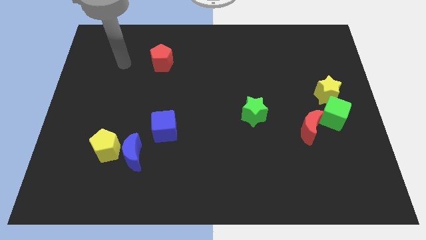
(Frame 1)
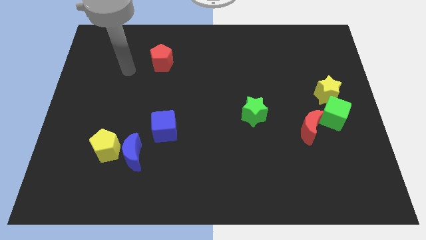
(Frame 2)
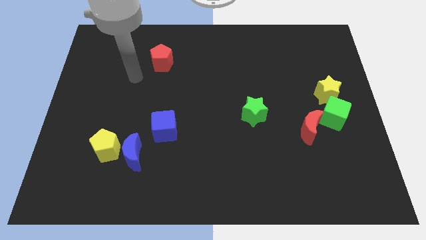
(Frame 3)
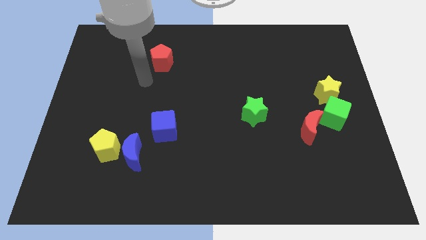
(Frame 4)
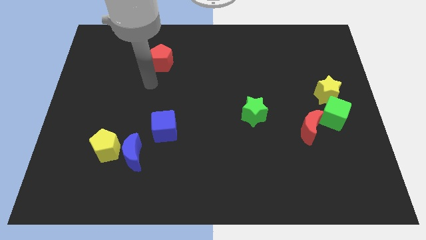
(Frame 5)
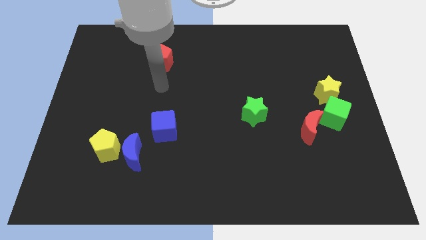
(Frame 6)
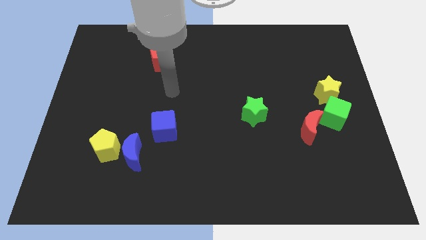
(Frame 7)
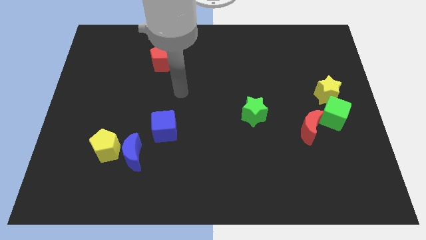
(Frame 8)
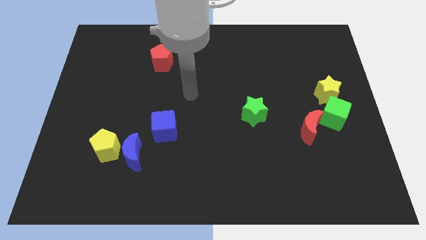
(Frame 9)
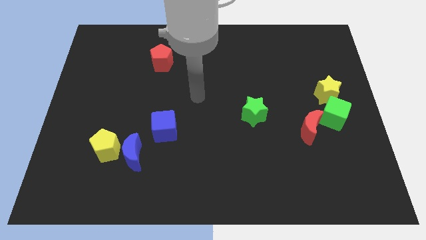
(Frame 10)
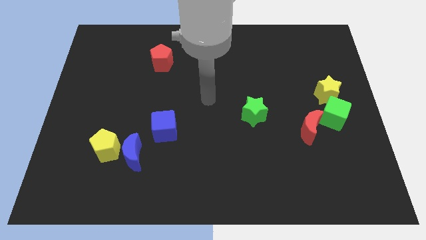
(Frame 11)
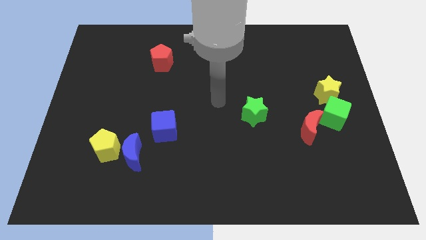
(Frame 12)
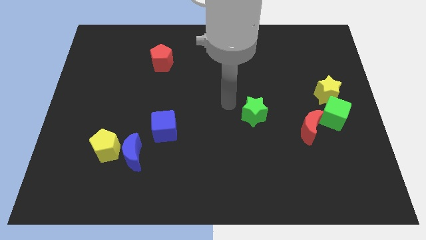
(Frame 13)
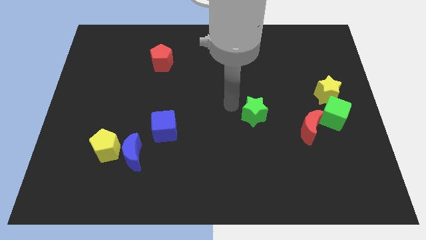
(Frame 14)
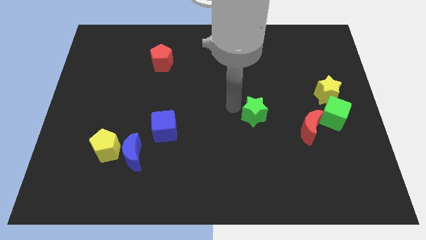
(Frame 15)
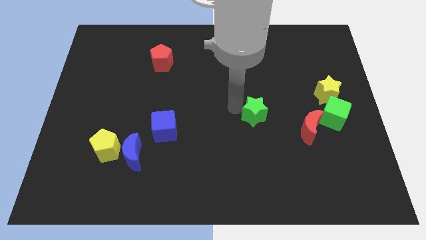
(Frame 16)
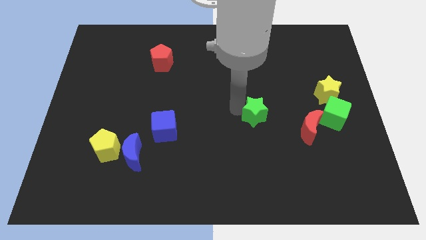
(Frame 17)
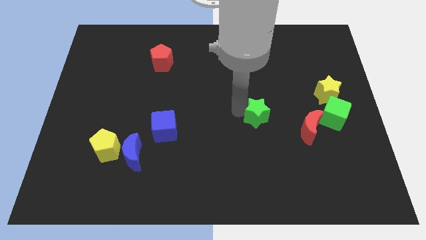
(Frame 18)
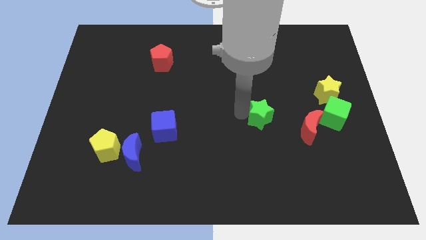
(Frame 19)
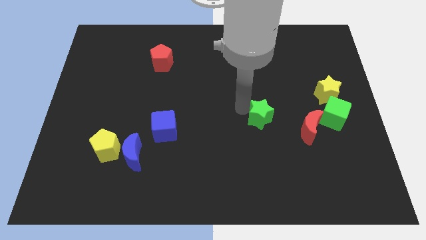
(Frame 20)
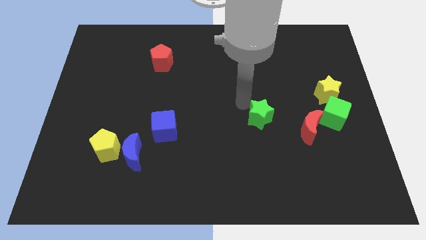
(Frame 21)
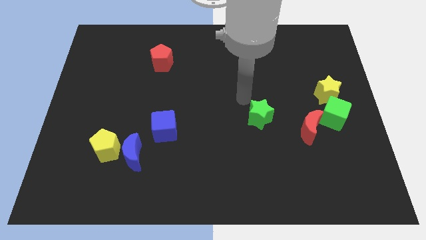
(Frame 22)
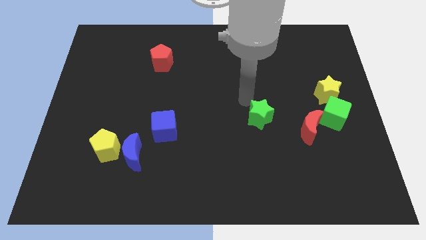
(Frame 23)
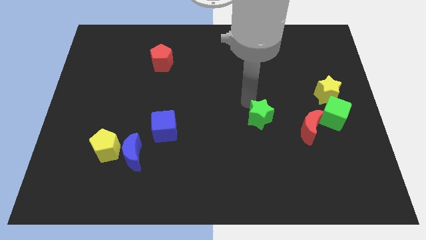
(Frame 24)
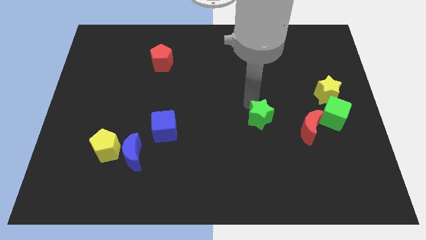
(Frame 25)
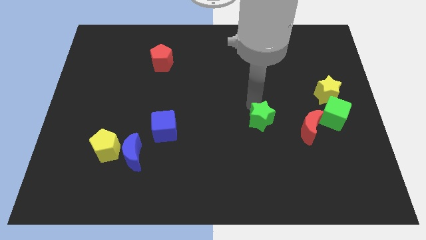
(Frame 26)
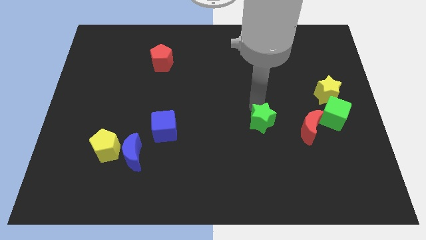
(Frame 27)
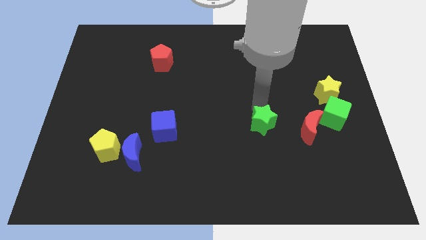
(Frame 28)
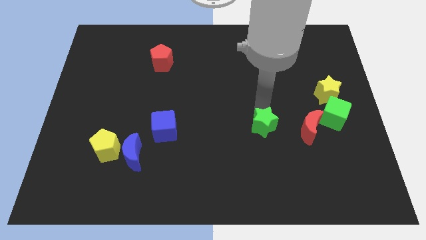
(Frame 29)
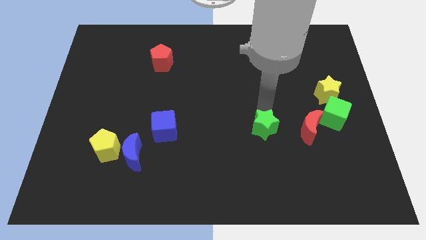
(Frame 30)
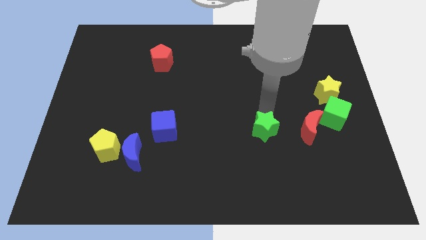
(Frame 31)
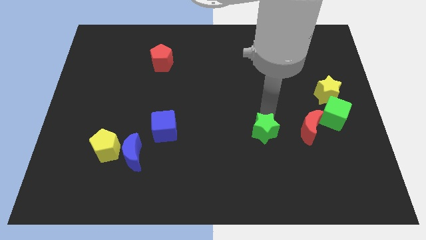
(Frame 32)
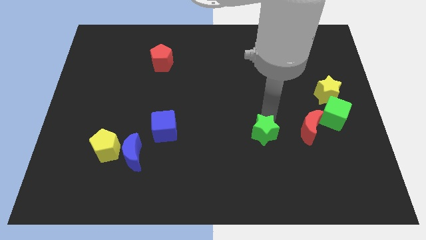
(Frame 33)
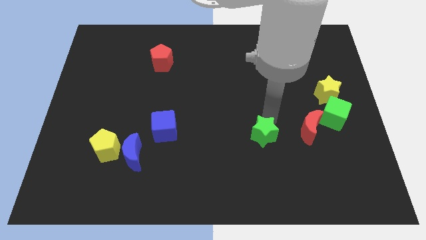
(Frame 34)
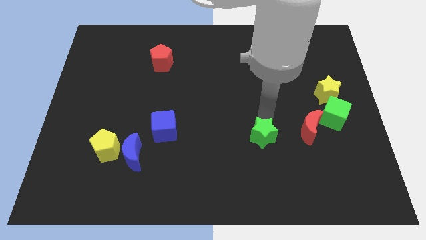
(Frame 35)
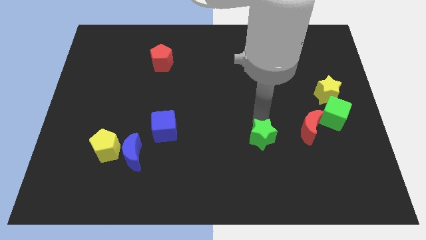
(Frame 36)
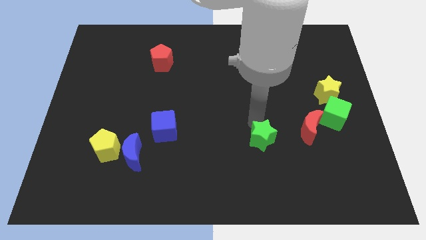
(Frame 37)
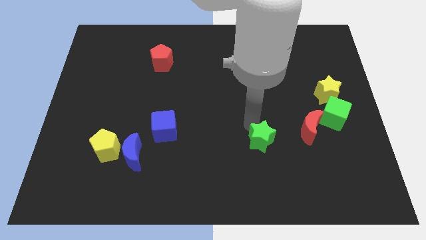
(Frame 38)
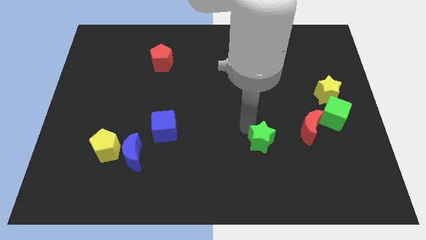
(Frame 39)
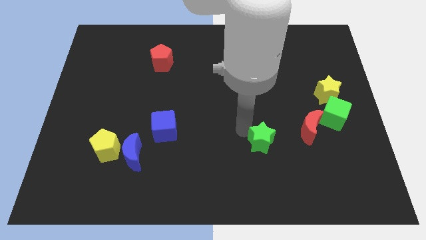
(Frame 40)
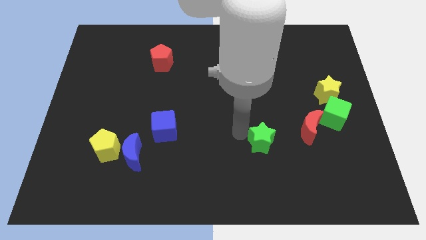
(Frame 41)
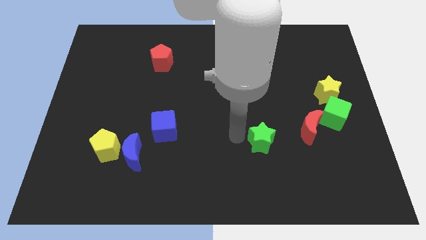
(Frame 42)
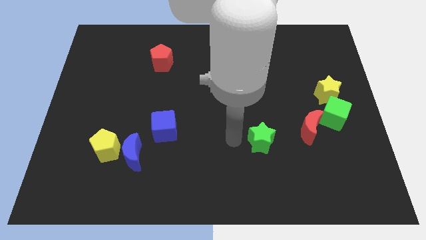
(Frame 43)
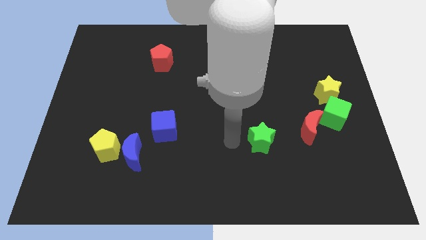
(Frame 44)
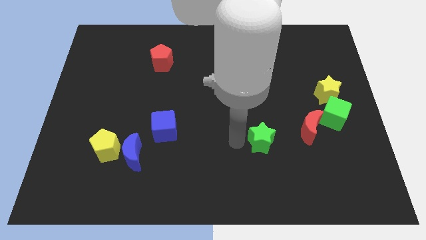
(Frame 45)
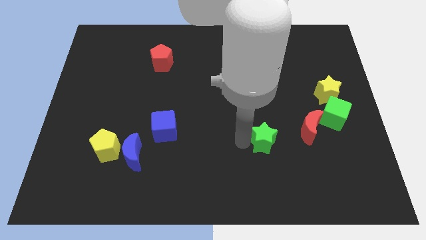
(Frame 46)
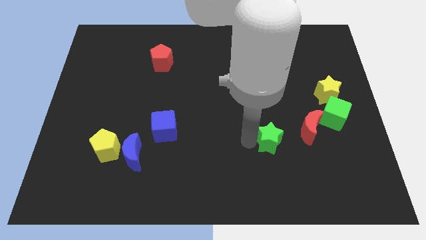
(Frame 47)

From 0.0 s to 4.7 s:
slide the green star down and then right a bit

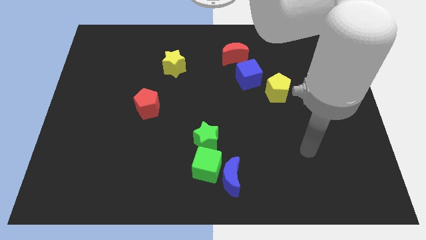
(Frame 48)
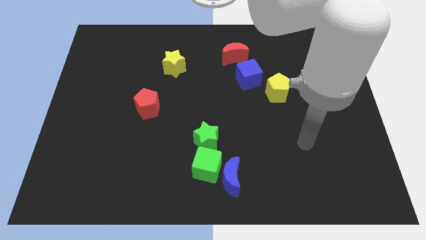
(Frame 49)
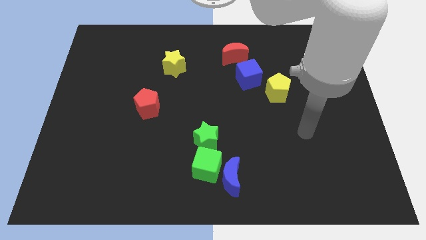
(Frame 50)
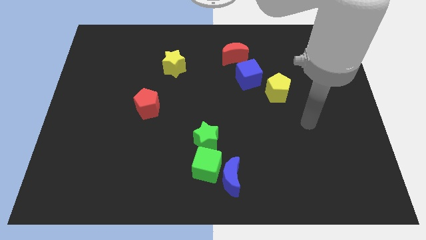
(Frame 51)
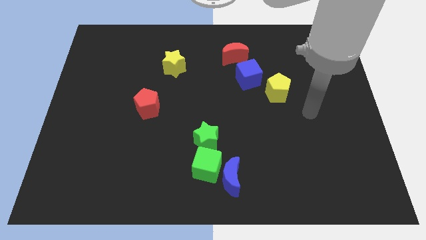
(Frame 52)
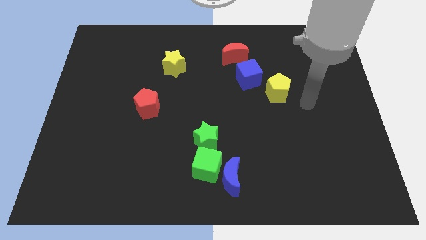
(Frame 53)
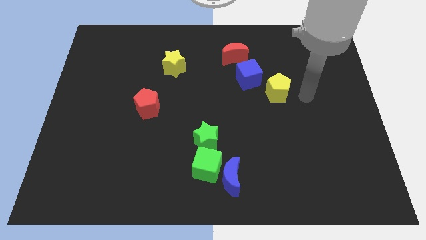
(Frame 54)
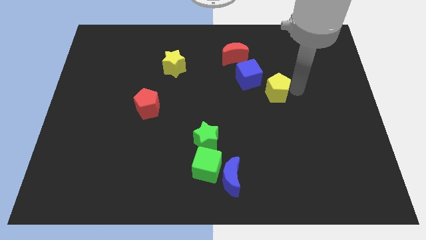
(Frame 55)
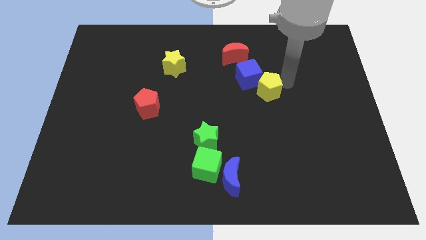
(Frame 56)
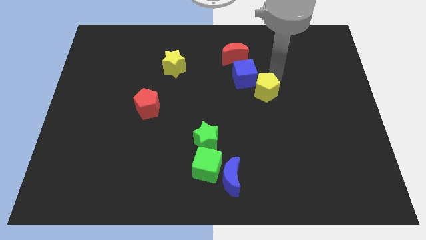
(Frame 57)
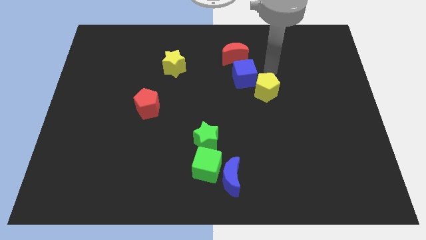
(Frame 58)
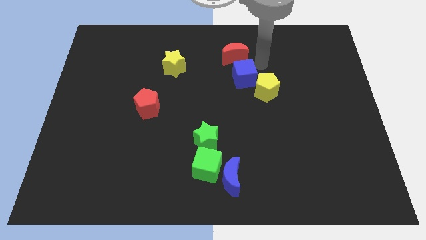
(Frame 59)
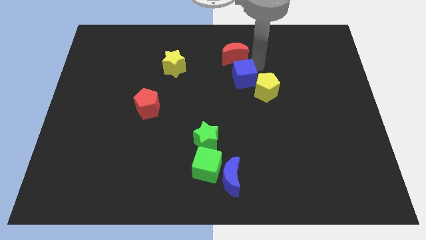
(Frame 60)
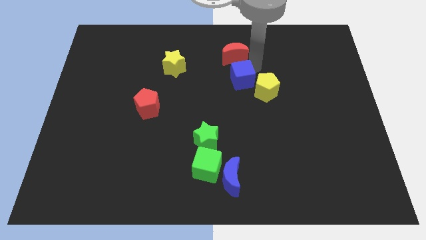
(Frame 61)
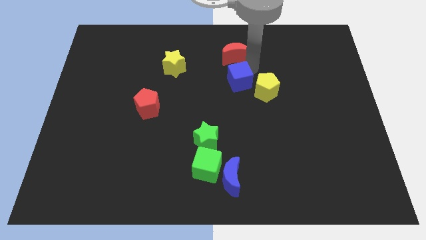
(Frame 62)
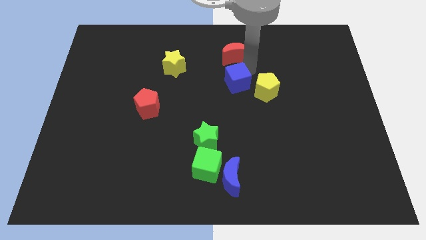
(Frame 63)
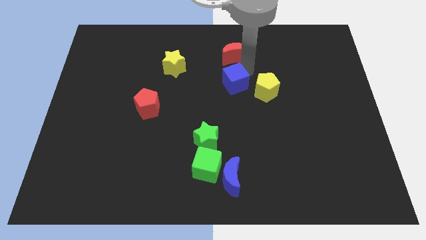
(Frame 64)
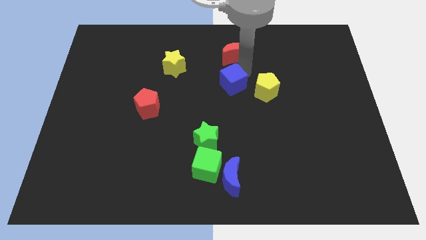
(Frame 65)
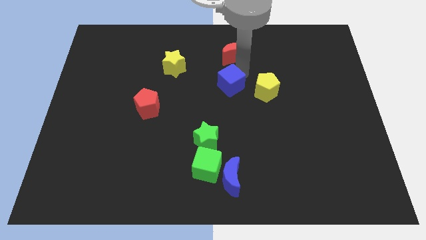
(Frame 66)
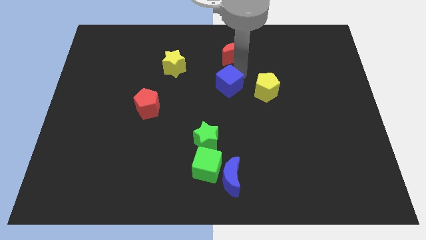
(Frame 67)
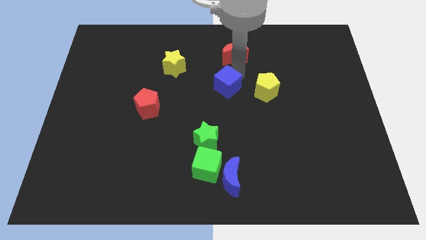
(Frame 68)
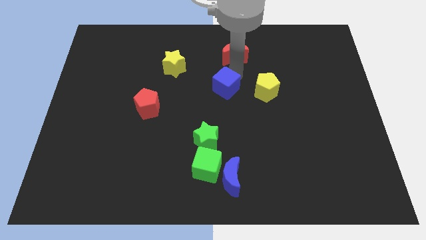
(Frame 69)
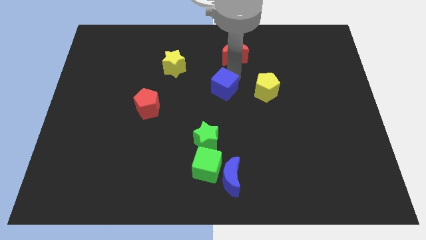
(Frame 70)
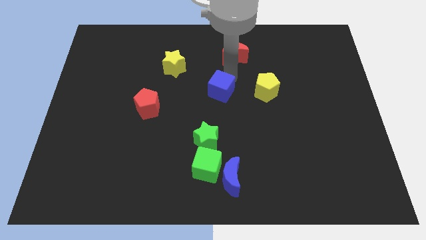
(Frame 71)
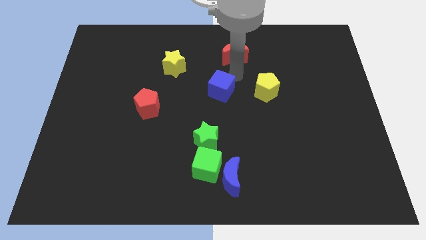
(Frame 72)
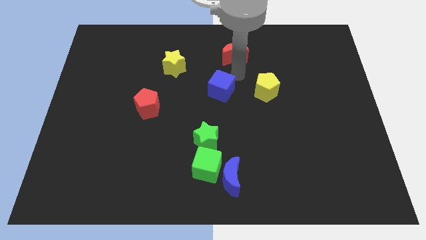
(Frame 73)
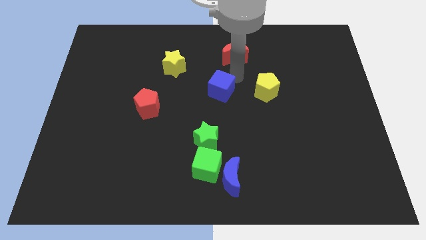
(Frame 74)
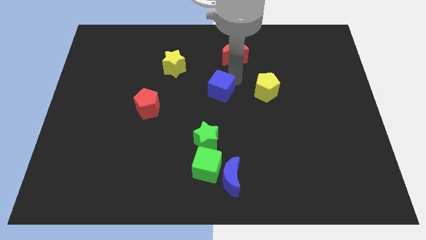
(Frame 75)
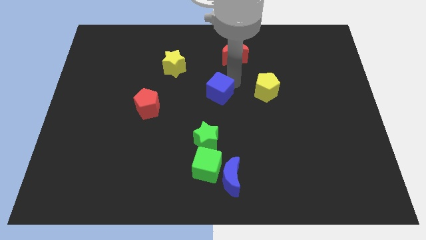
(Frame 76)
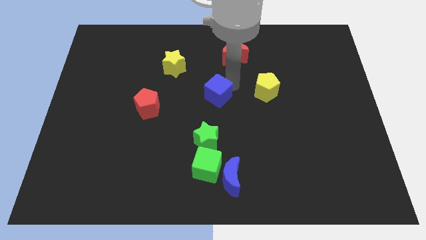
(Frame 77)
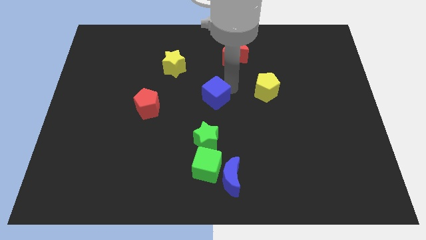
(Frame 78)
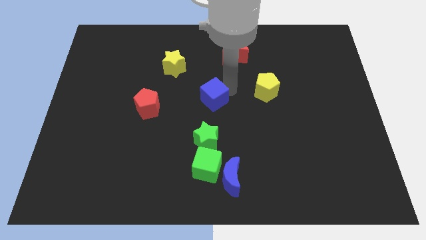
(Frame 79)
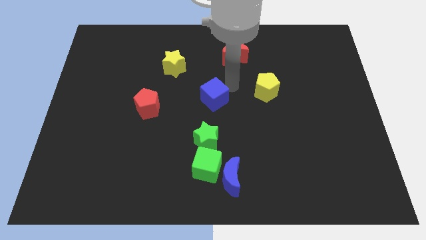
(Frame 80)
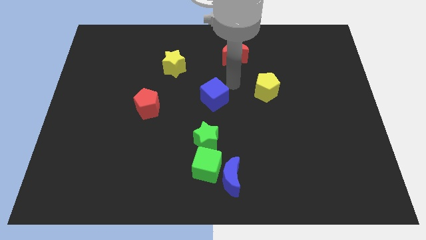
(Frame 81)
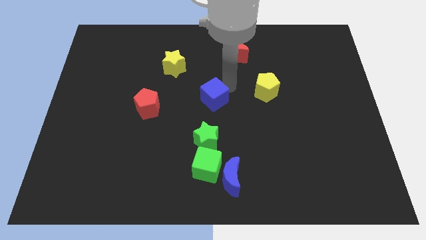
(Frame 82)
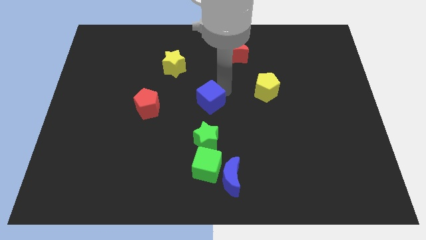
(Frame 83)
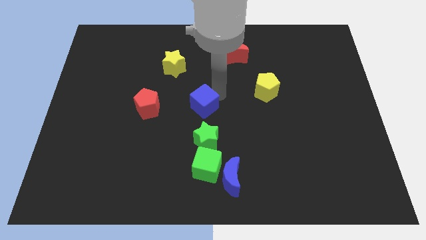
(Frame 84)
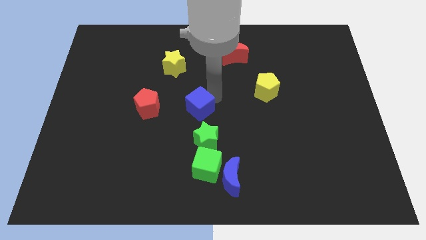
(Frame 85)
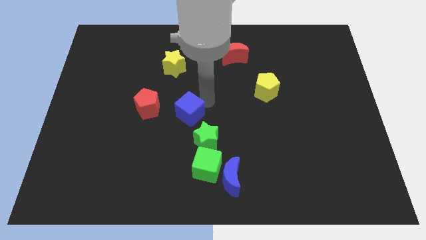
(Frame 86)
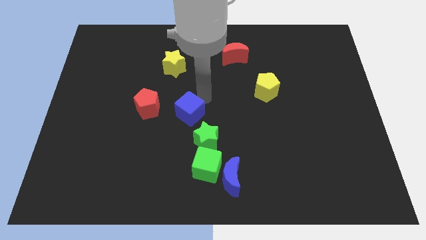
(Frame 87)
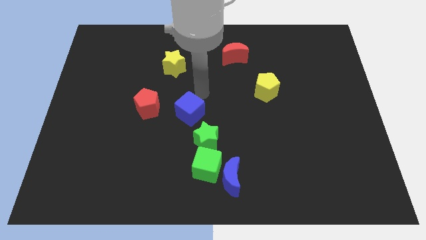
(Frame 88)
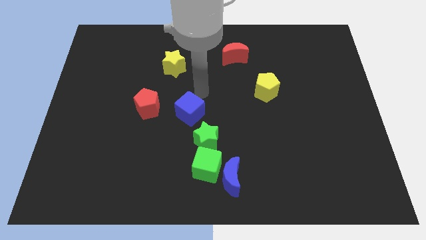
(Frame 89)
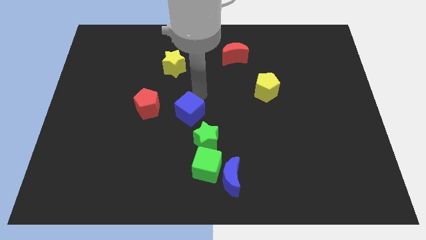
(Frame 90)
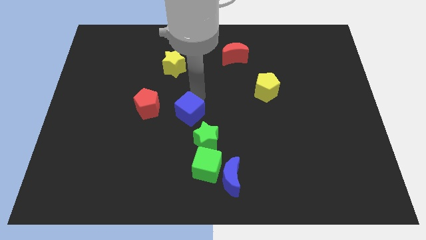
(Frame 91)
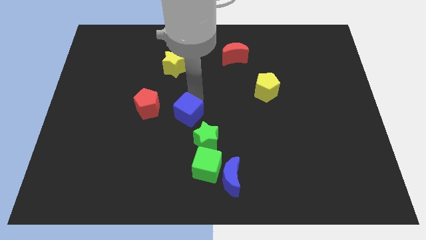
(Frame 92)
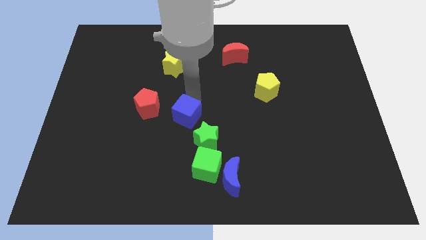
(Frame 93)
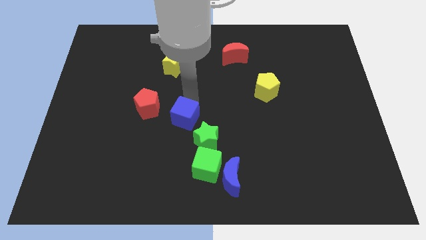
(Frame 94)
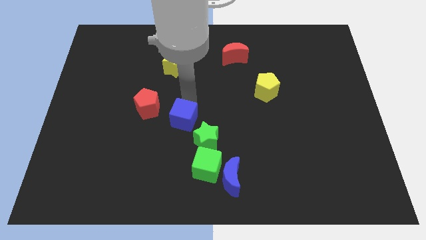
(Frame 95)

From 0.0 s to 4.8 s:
move the blue cube downwards and to the left
